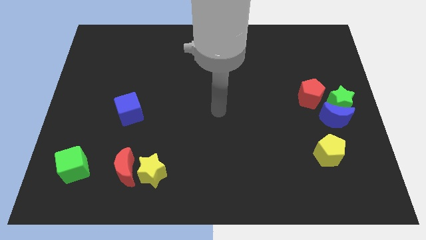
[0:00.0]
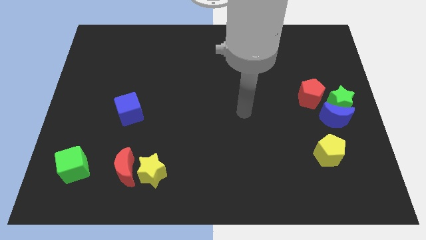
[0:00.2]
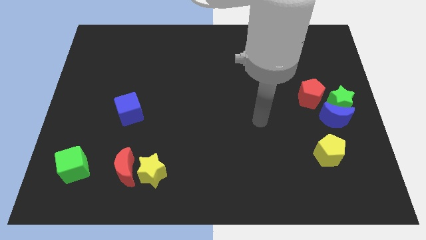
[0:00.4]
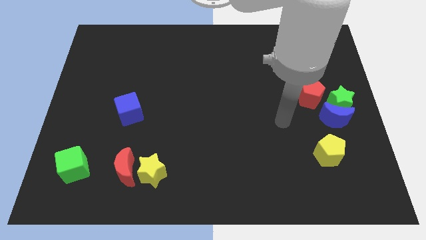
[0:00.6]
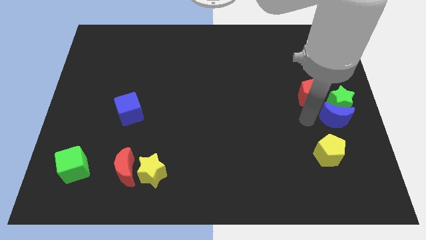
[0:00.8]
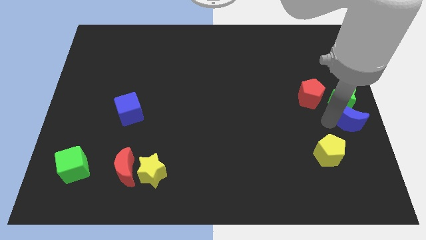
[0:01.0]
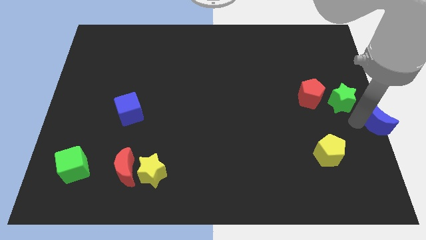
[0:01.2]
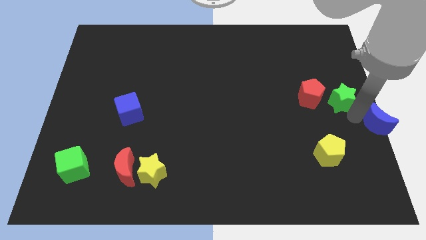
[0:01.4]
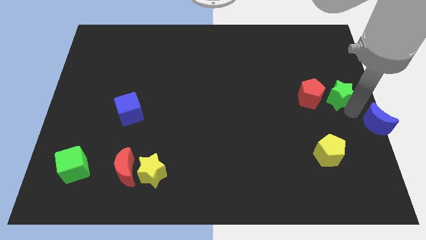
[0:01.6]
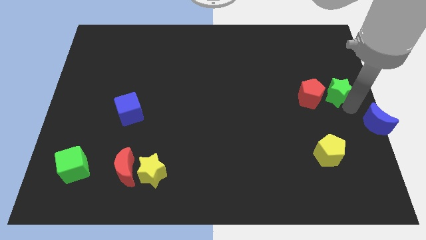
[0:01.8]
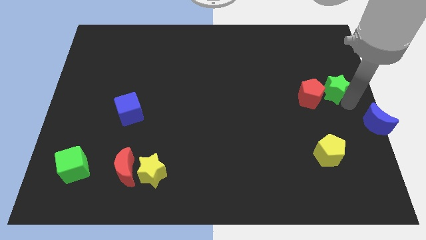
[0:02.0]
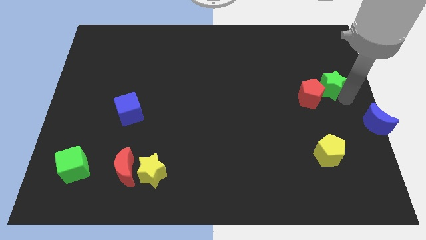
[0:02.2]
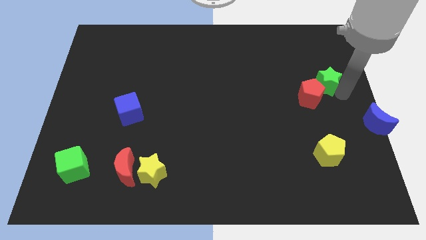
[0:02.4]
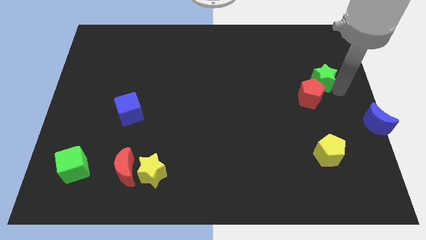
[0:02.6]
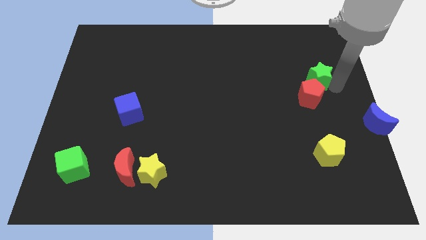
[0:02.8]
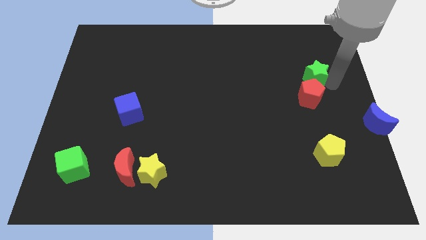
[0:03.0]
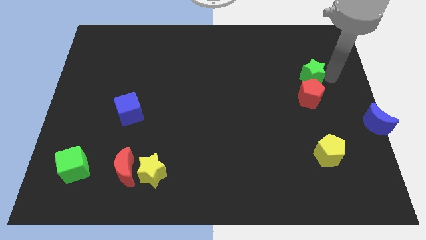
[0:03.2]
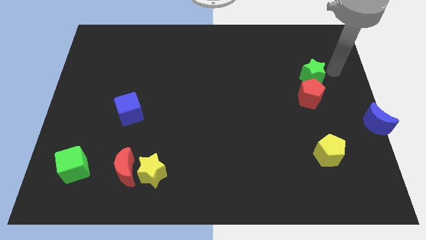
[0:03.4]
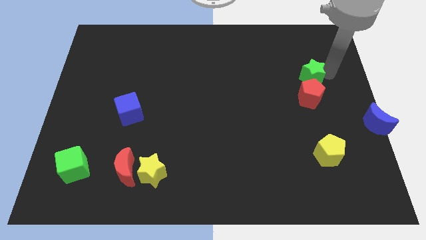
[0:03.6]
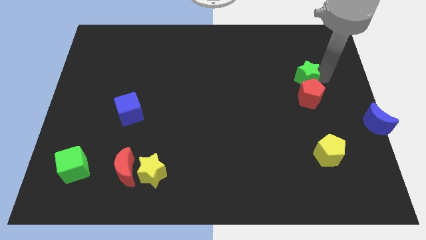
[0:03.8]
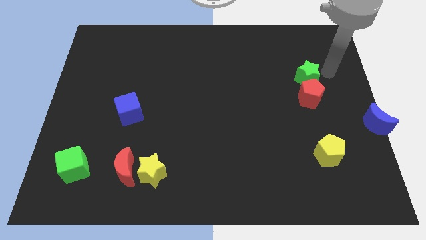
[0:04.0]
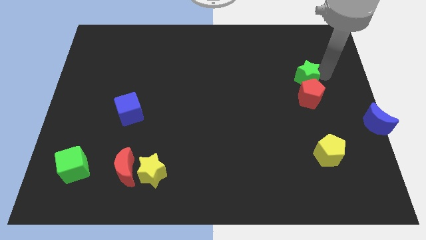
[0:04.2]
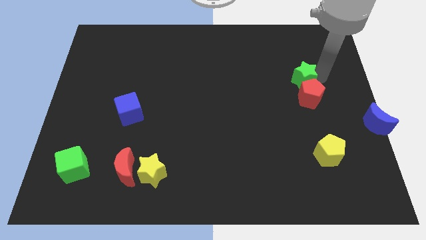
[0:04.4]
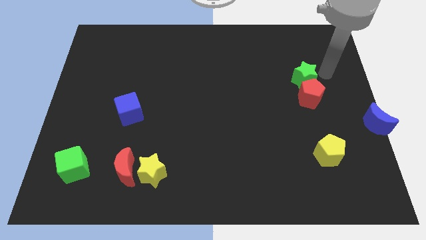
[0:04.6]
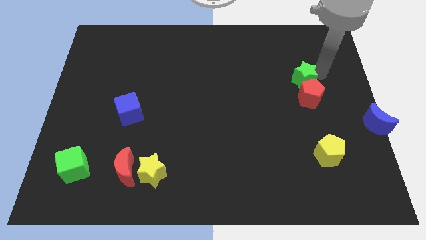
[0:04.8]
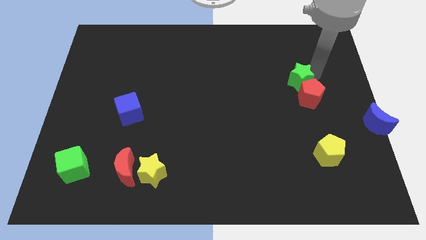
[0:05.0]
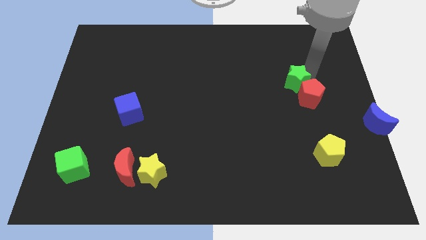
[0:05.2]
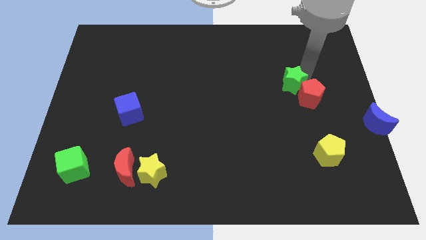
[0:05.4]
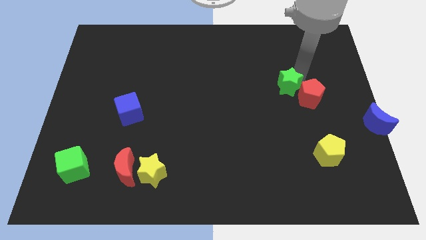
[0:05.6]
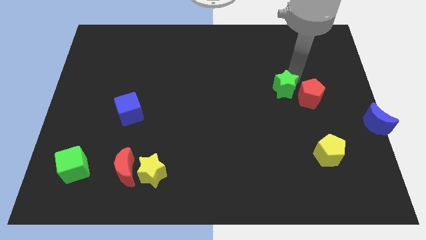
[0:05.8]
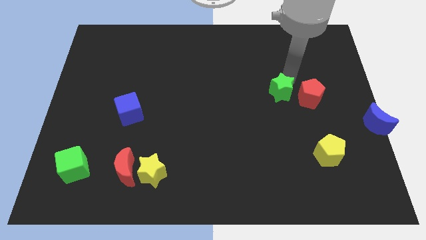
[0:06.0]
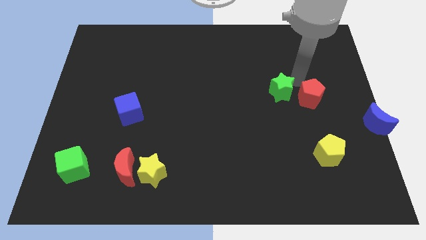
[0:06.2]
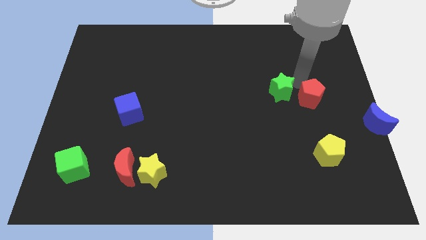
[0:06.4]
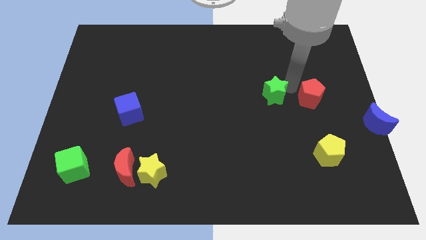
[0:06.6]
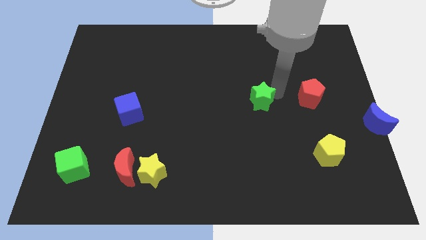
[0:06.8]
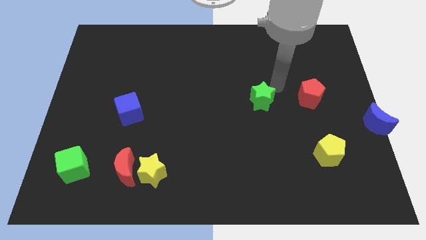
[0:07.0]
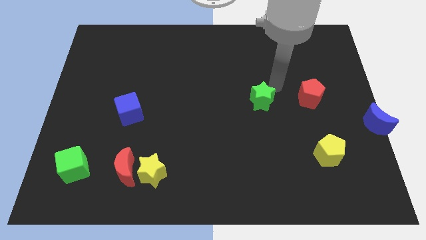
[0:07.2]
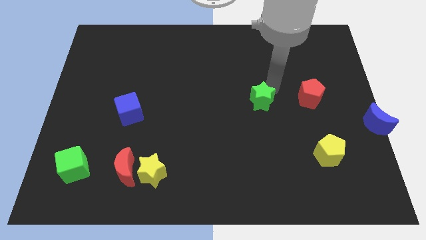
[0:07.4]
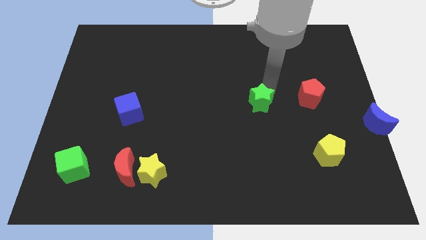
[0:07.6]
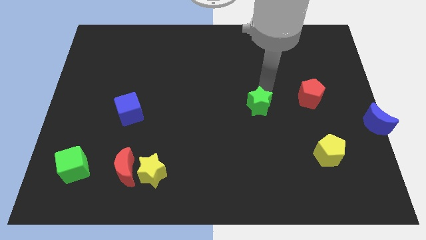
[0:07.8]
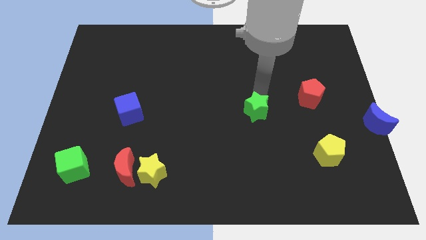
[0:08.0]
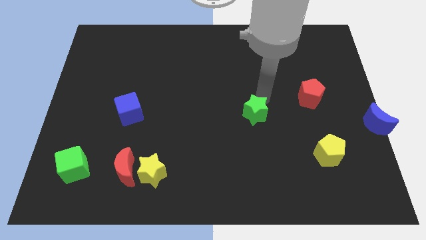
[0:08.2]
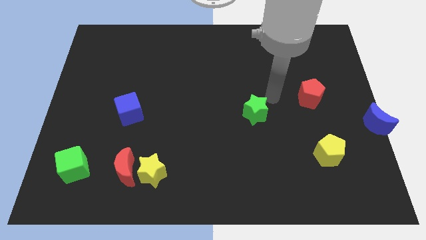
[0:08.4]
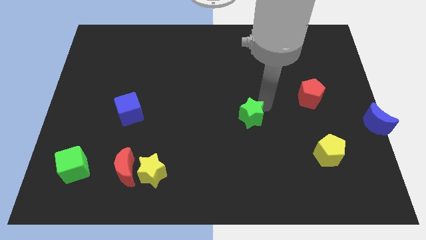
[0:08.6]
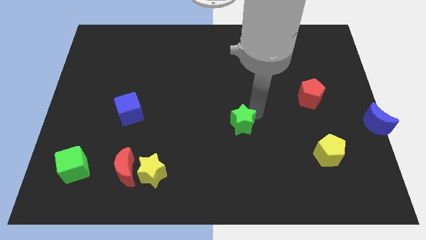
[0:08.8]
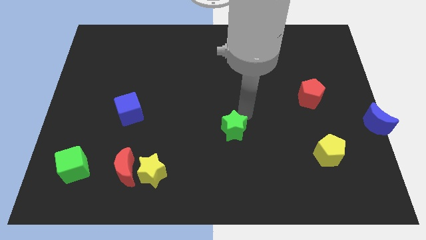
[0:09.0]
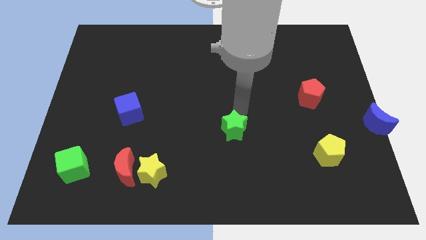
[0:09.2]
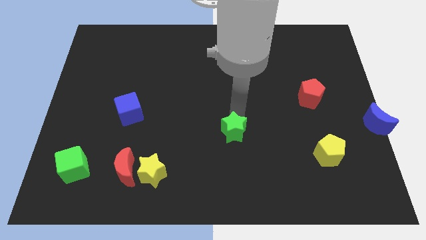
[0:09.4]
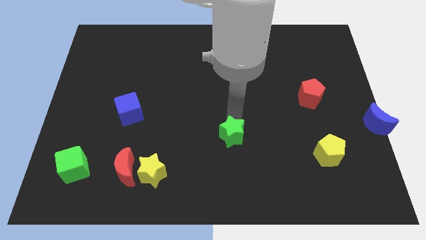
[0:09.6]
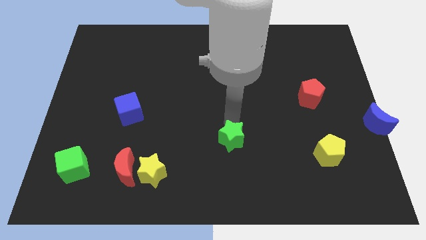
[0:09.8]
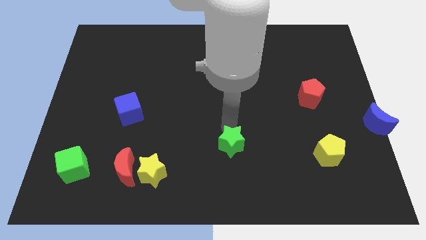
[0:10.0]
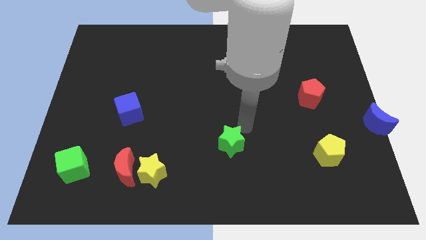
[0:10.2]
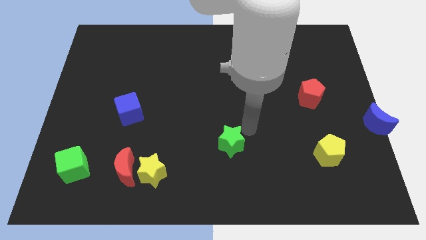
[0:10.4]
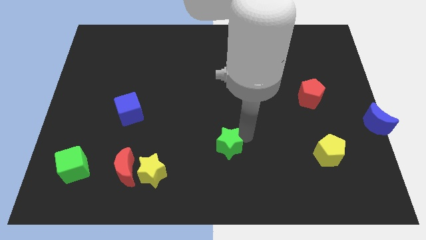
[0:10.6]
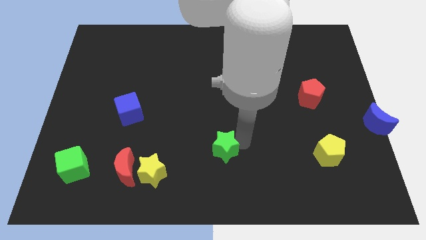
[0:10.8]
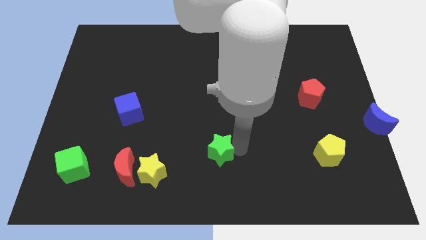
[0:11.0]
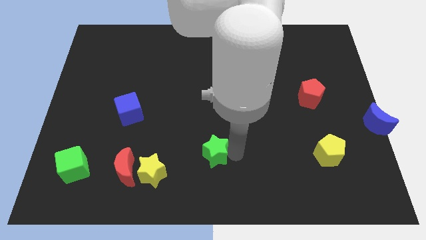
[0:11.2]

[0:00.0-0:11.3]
push the green star to the right of the yellow star

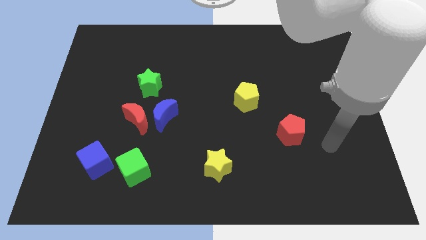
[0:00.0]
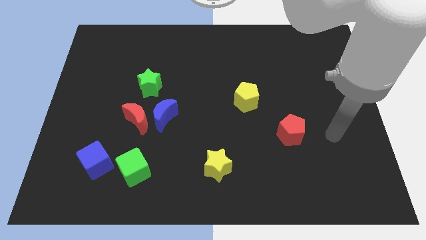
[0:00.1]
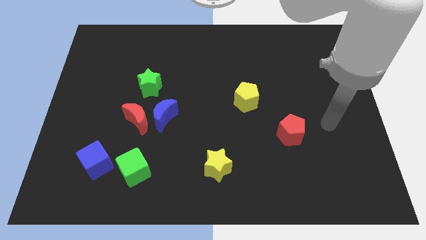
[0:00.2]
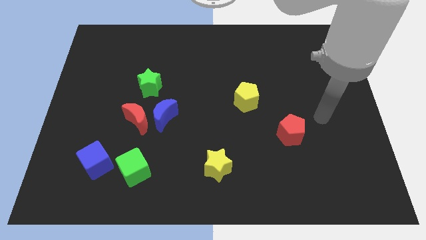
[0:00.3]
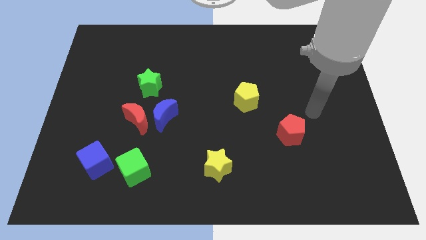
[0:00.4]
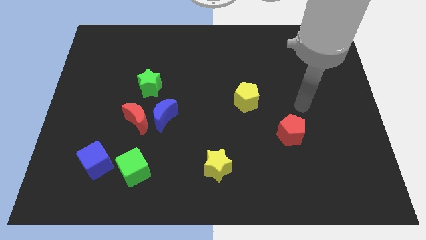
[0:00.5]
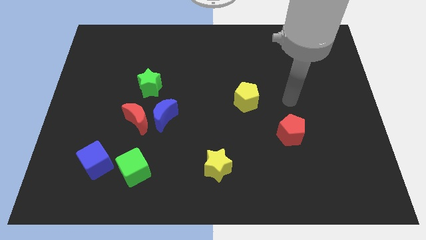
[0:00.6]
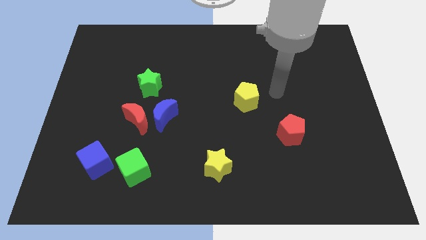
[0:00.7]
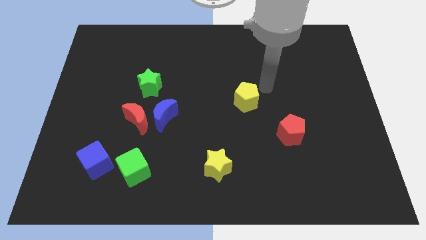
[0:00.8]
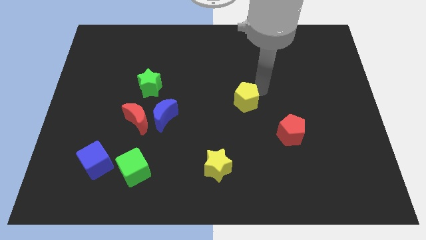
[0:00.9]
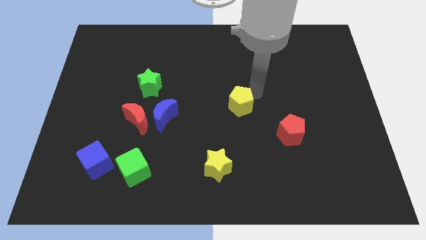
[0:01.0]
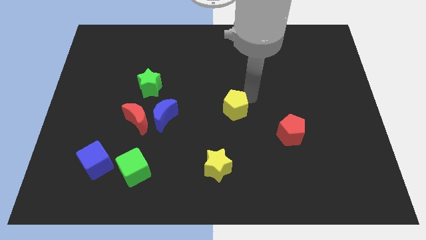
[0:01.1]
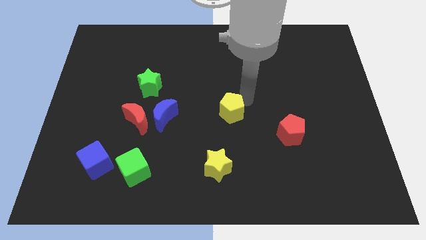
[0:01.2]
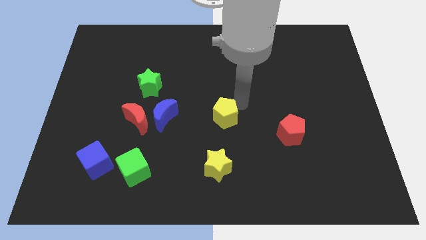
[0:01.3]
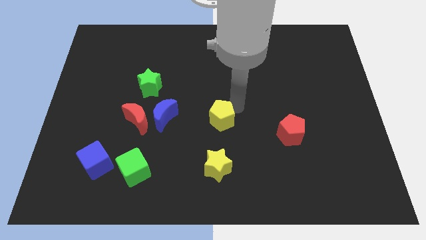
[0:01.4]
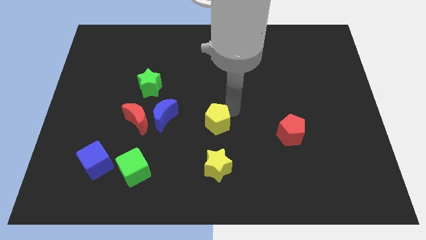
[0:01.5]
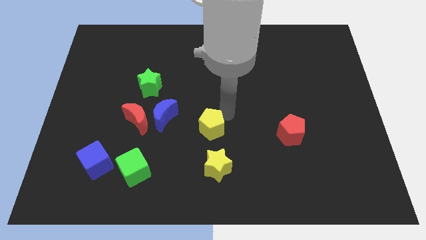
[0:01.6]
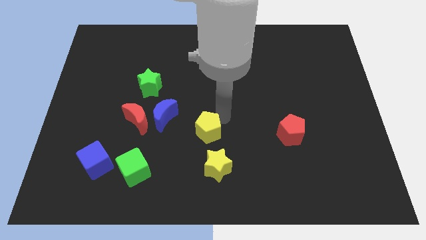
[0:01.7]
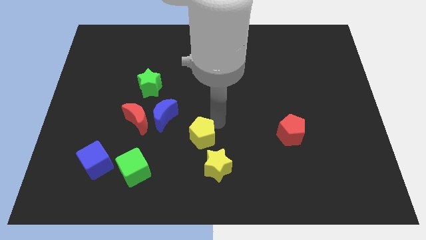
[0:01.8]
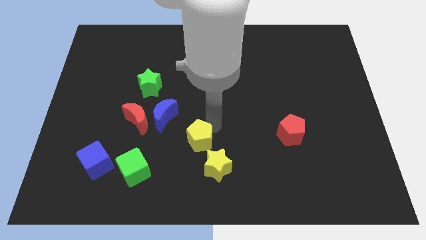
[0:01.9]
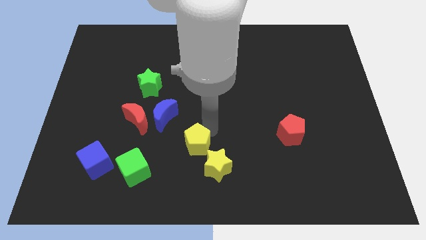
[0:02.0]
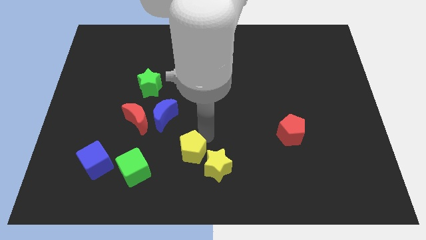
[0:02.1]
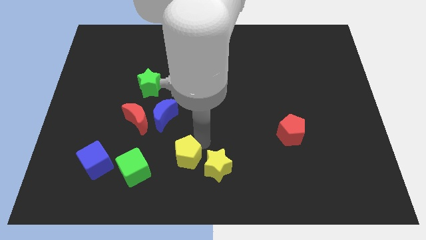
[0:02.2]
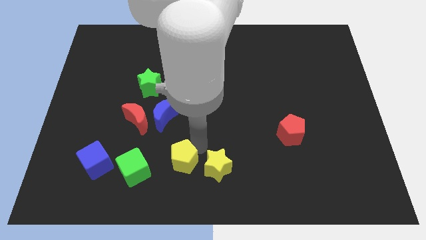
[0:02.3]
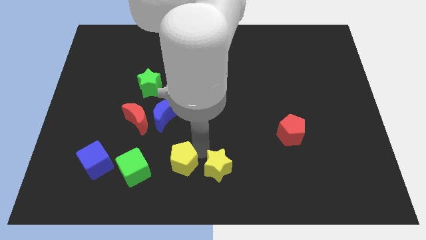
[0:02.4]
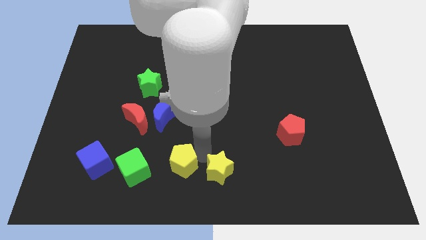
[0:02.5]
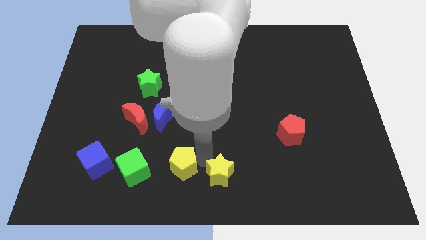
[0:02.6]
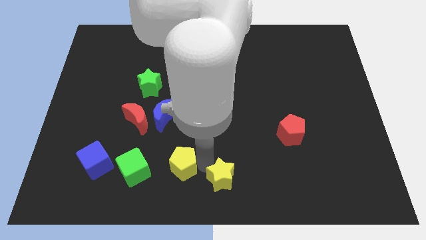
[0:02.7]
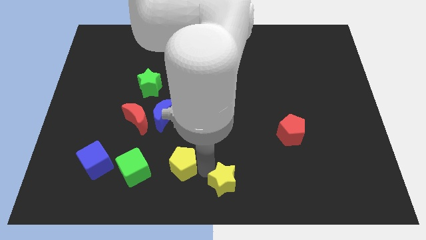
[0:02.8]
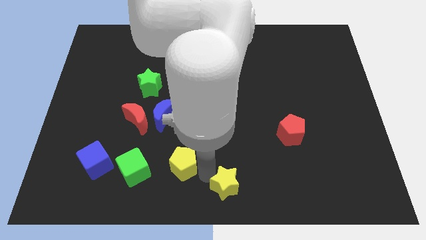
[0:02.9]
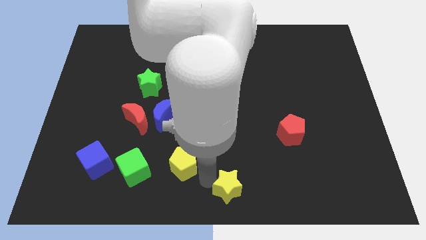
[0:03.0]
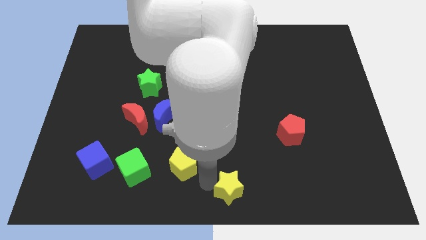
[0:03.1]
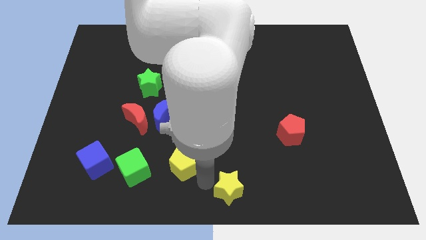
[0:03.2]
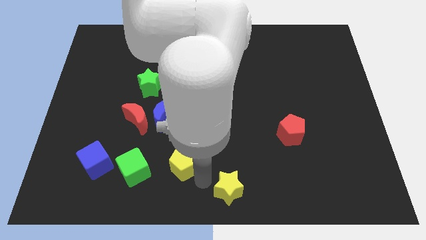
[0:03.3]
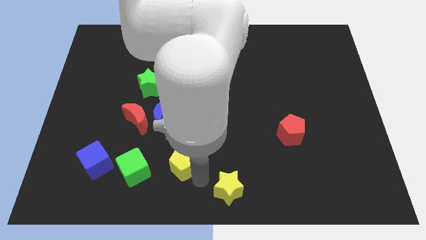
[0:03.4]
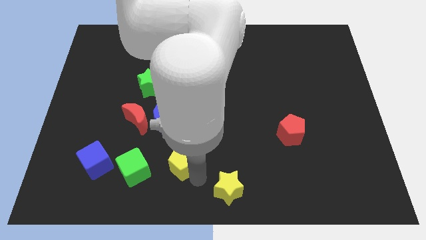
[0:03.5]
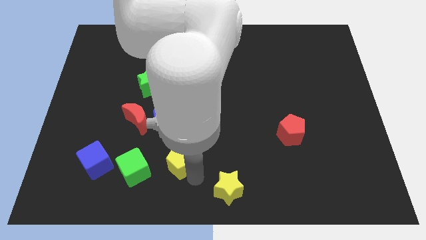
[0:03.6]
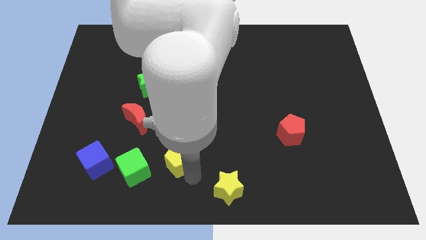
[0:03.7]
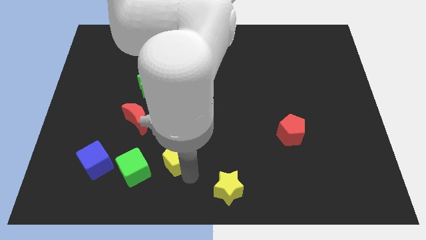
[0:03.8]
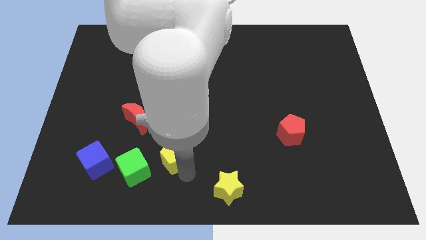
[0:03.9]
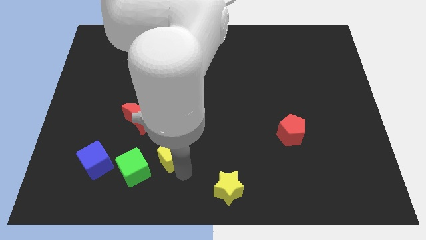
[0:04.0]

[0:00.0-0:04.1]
put the yellow pentagon diagonally down and to the right of the red moon
